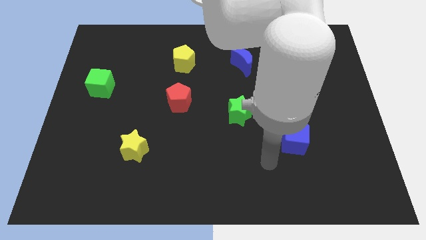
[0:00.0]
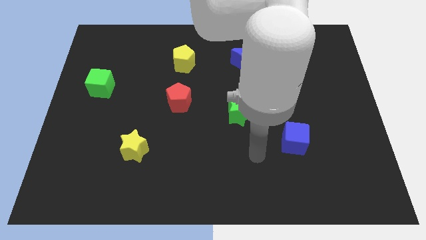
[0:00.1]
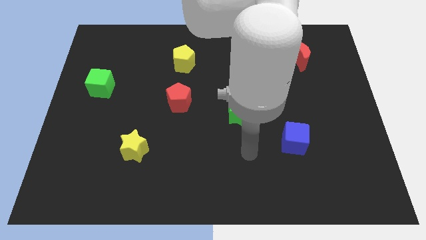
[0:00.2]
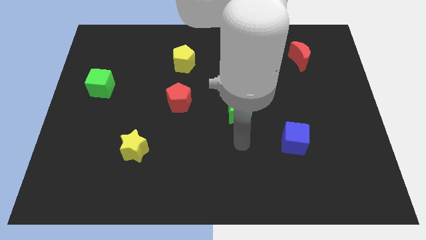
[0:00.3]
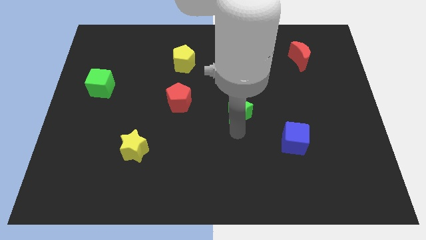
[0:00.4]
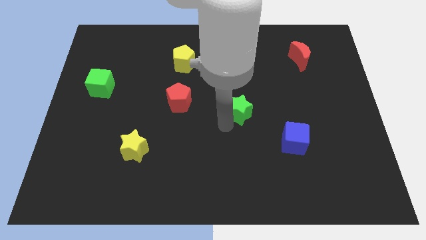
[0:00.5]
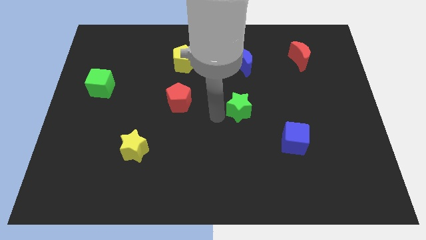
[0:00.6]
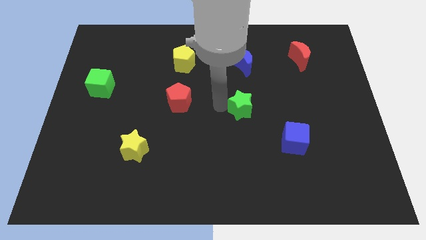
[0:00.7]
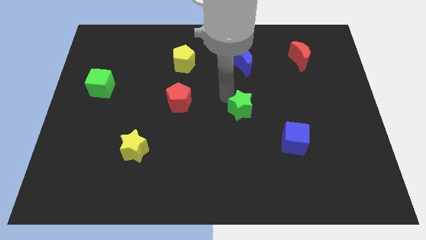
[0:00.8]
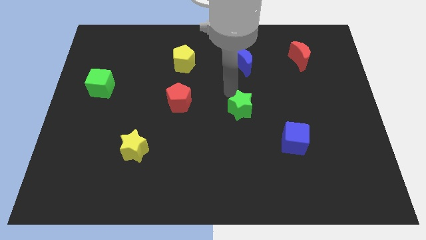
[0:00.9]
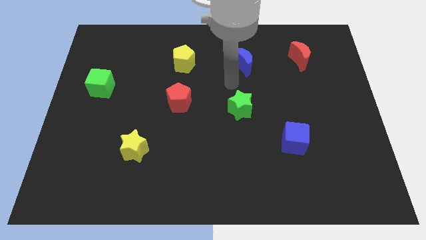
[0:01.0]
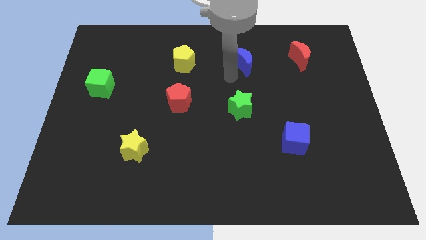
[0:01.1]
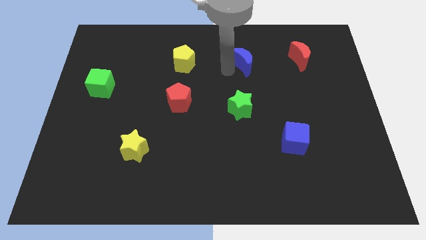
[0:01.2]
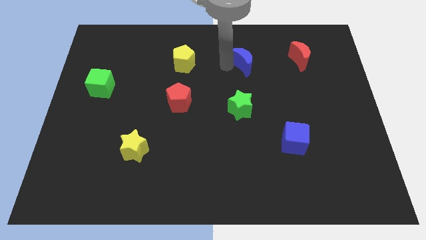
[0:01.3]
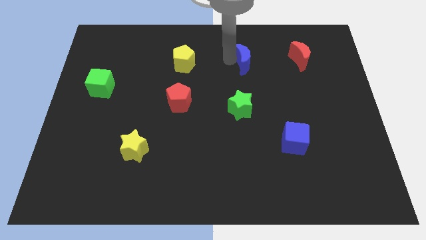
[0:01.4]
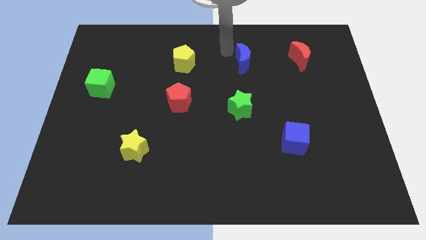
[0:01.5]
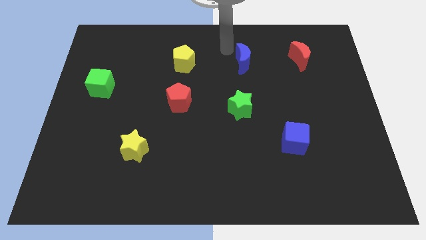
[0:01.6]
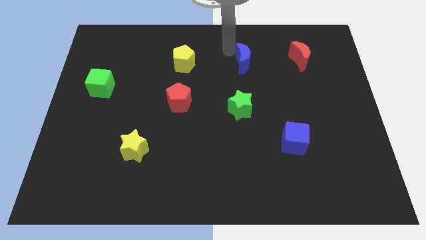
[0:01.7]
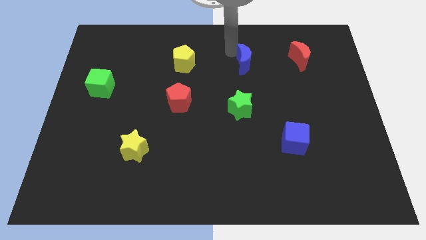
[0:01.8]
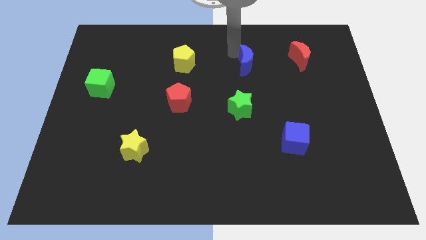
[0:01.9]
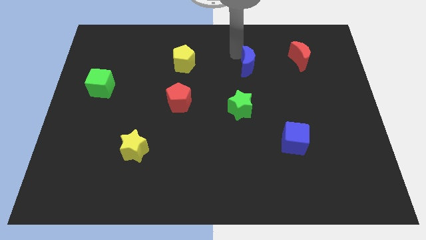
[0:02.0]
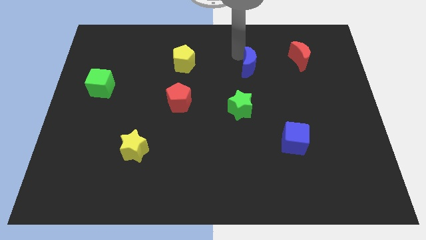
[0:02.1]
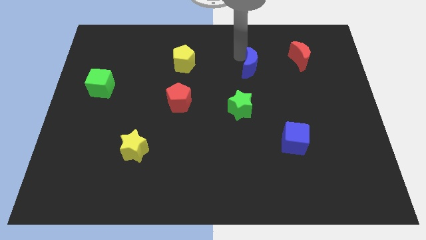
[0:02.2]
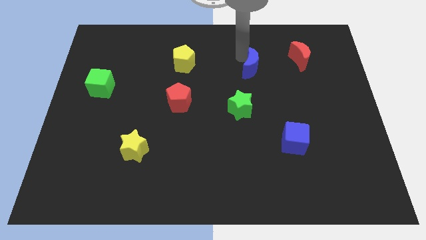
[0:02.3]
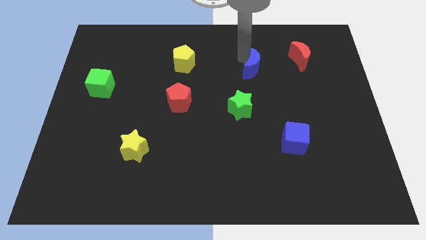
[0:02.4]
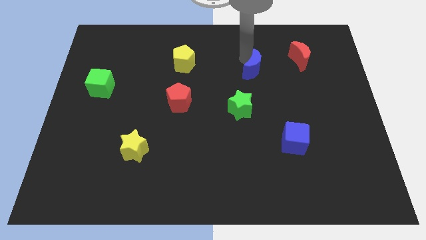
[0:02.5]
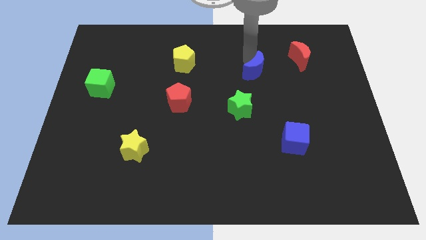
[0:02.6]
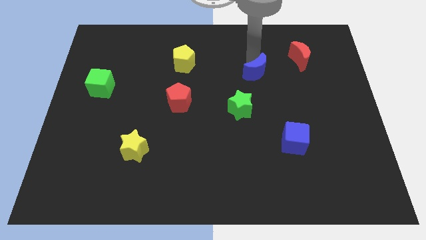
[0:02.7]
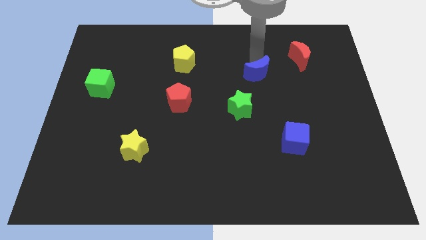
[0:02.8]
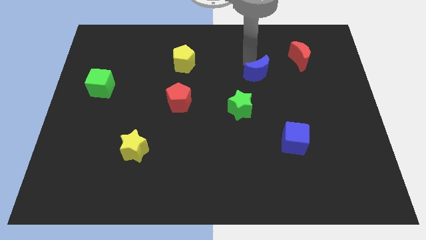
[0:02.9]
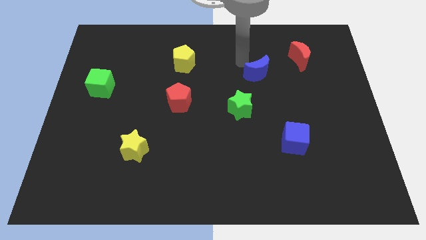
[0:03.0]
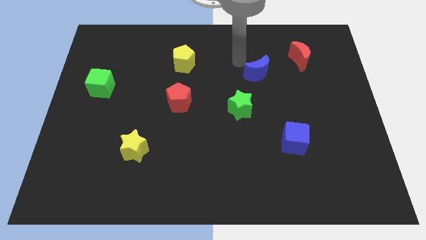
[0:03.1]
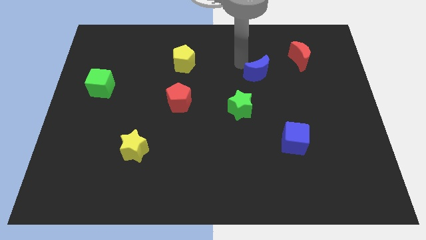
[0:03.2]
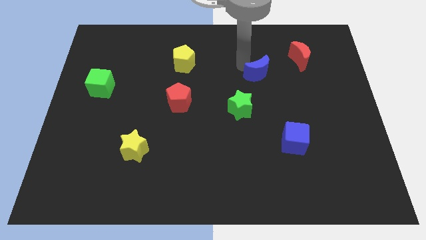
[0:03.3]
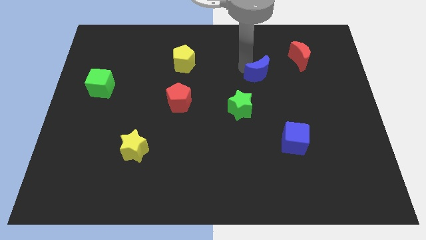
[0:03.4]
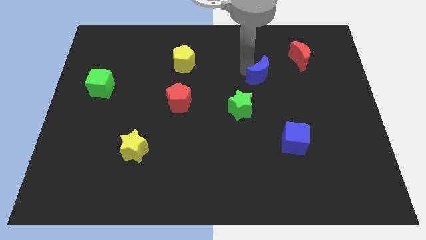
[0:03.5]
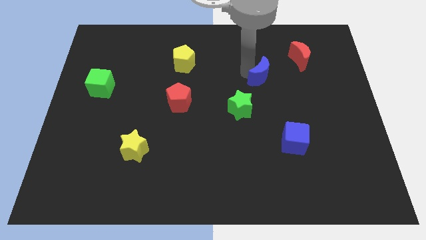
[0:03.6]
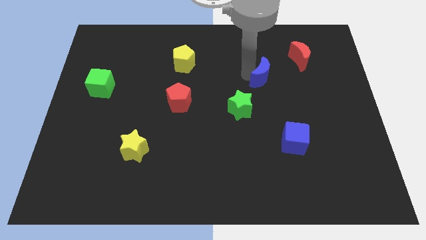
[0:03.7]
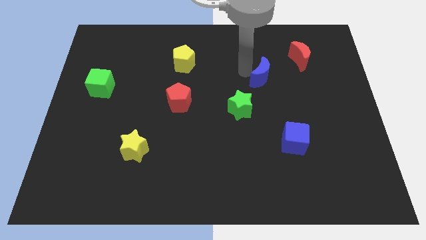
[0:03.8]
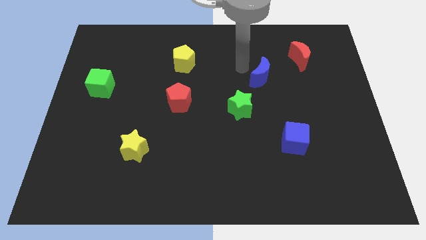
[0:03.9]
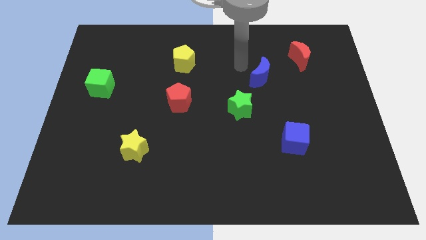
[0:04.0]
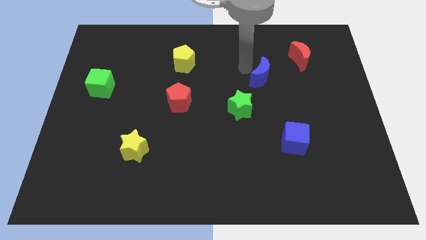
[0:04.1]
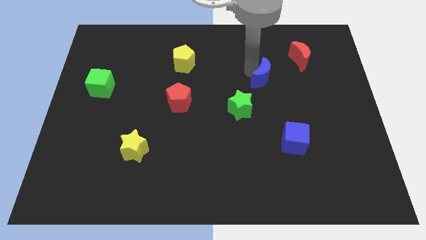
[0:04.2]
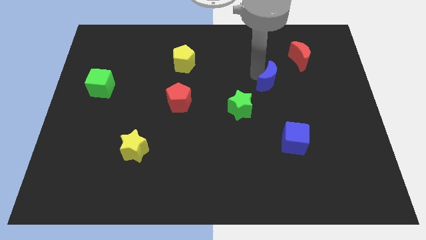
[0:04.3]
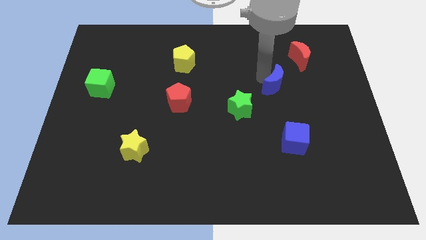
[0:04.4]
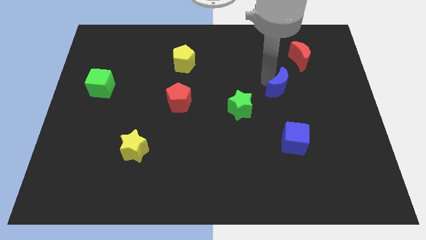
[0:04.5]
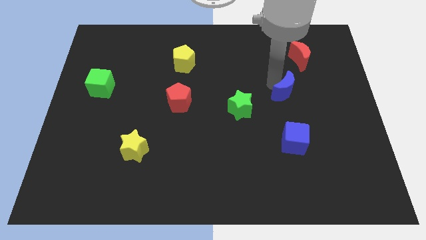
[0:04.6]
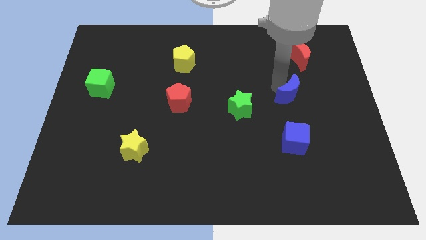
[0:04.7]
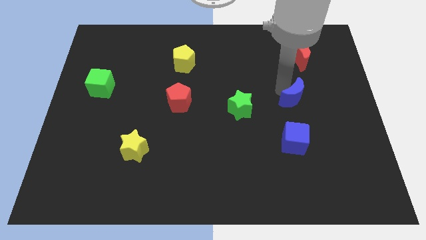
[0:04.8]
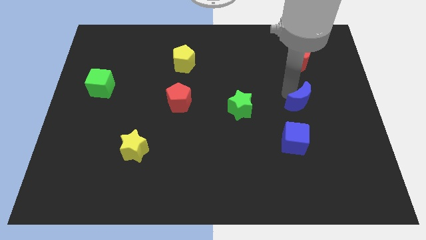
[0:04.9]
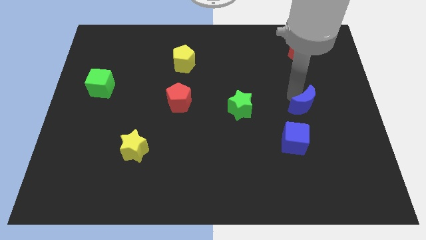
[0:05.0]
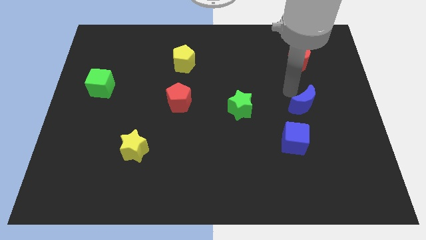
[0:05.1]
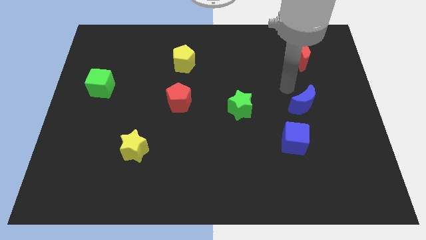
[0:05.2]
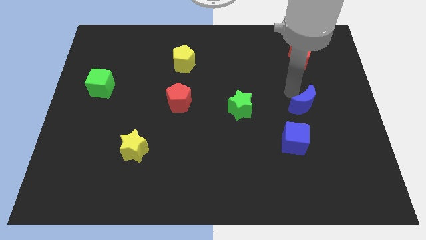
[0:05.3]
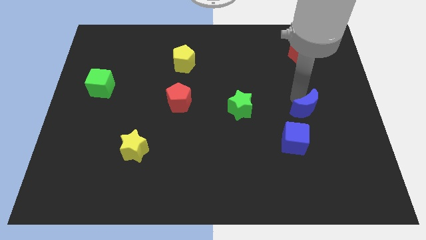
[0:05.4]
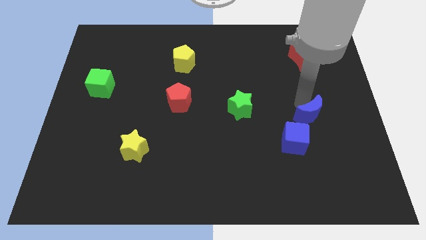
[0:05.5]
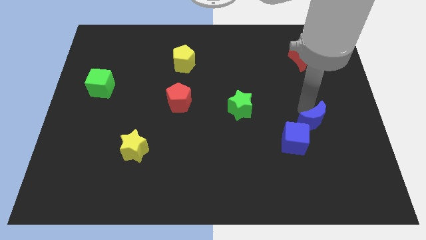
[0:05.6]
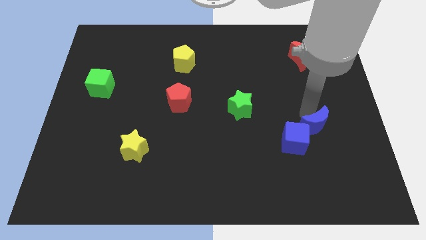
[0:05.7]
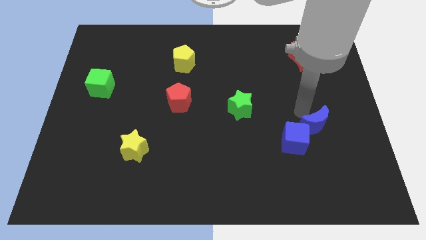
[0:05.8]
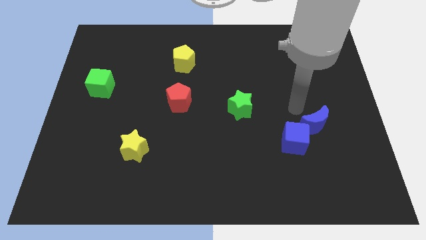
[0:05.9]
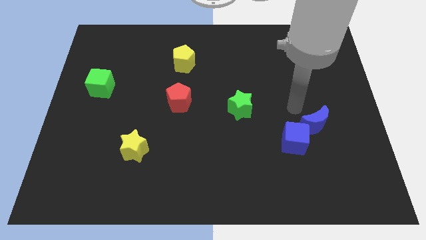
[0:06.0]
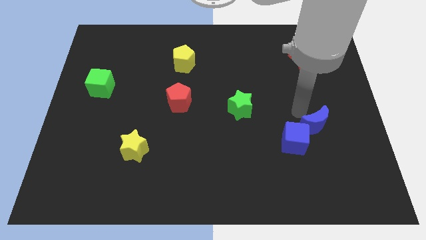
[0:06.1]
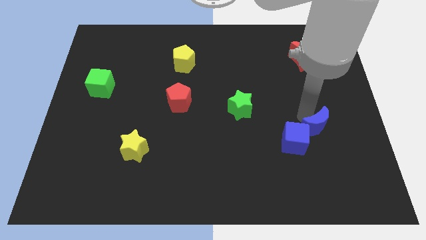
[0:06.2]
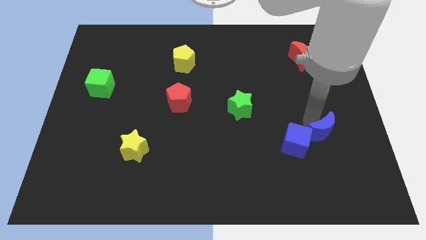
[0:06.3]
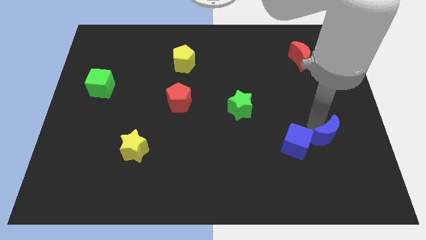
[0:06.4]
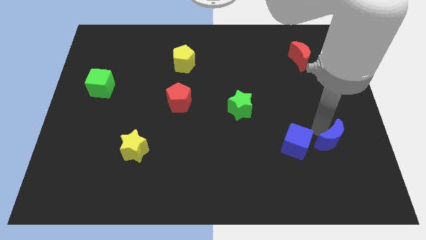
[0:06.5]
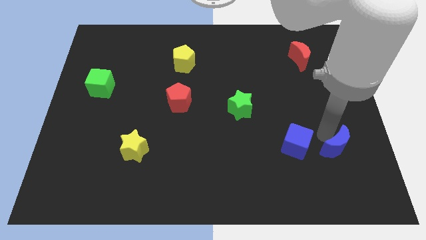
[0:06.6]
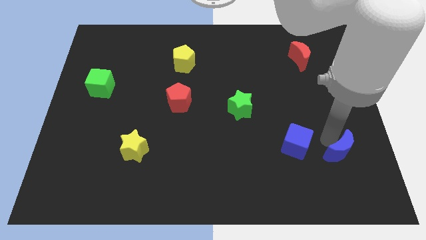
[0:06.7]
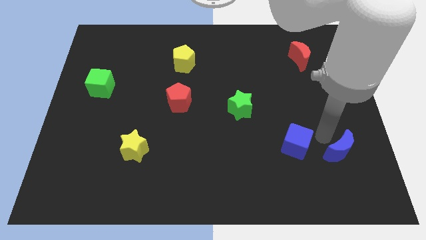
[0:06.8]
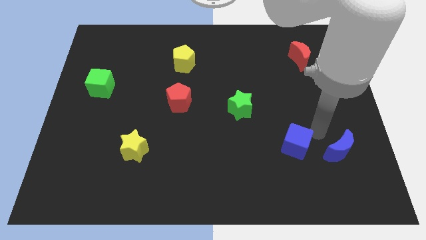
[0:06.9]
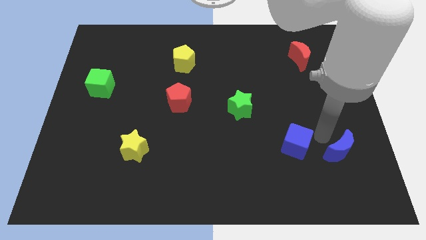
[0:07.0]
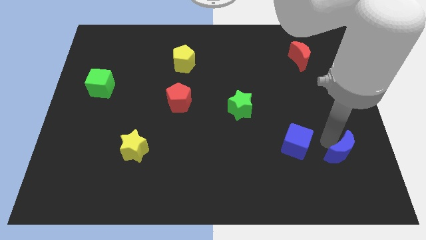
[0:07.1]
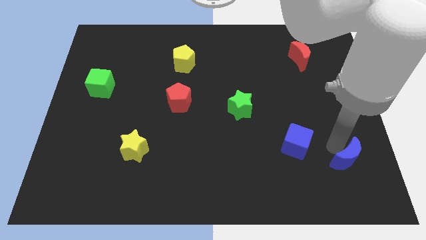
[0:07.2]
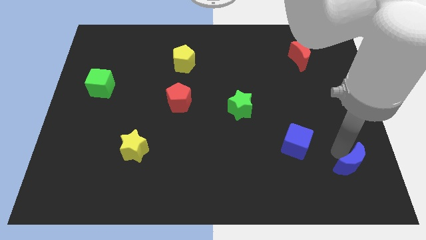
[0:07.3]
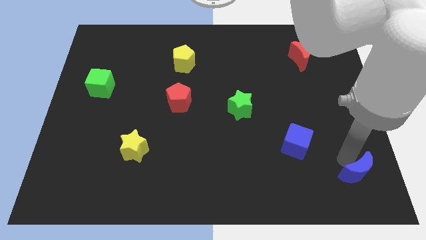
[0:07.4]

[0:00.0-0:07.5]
slide the blue moon to the lower right corner
